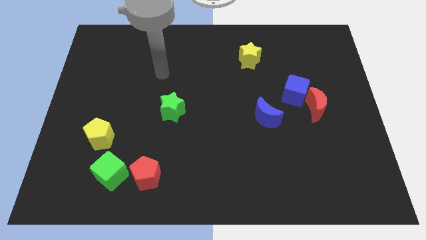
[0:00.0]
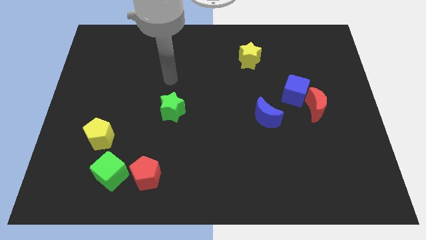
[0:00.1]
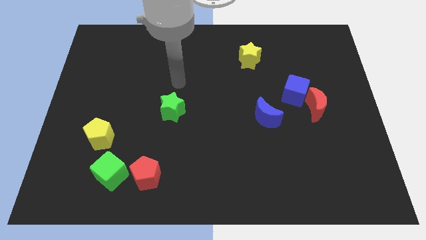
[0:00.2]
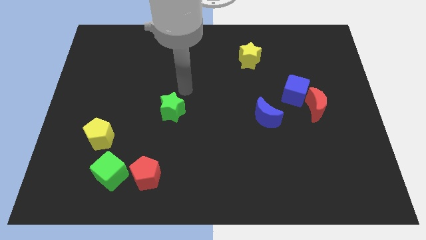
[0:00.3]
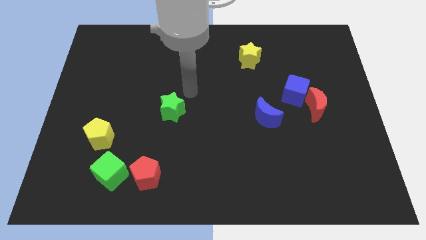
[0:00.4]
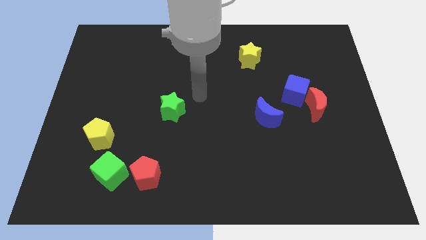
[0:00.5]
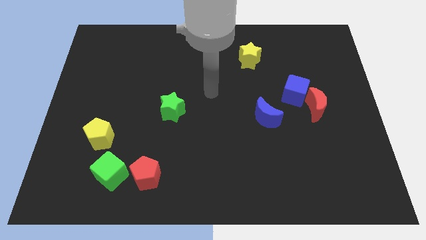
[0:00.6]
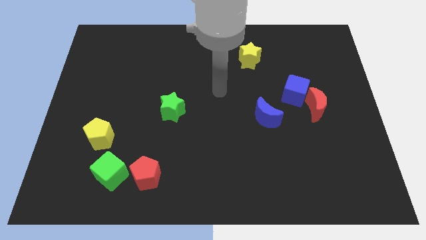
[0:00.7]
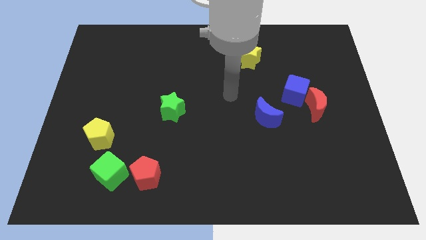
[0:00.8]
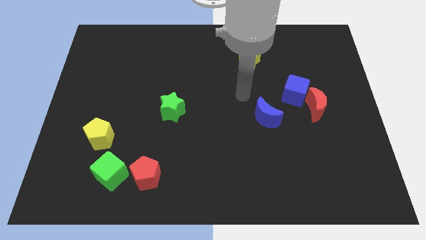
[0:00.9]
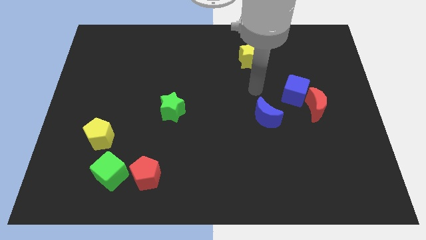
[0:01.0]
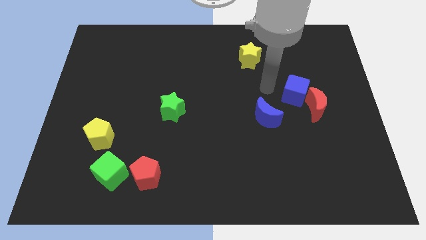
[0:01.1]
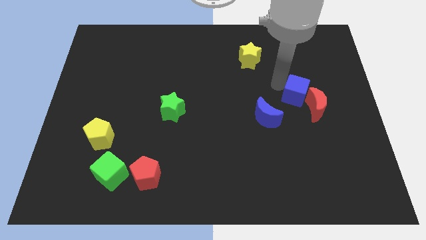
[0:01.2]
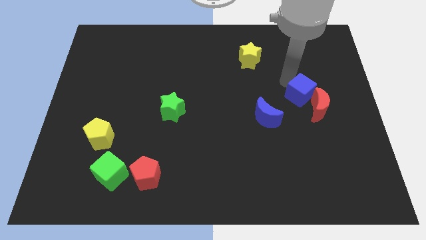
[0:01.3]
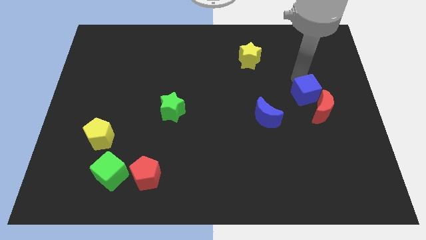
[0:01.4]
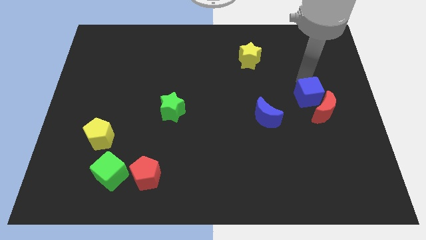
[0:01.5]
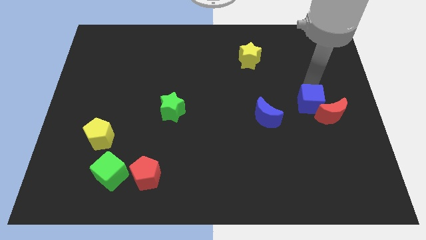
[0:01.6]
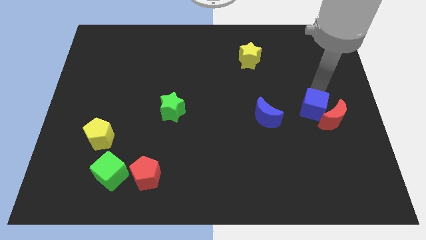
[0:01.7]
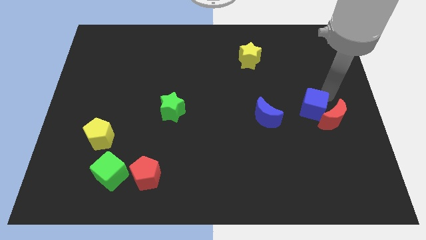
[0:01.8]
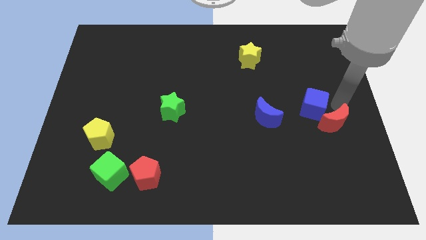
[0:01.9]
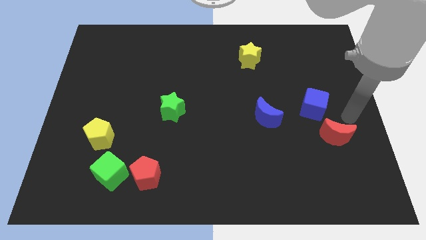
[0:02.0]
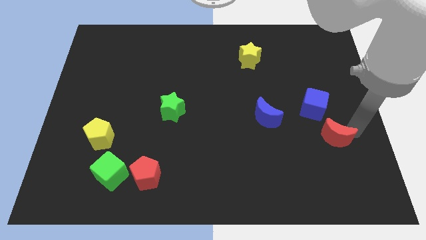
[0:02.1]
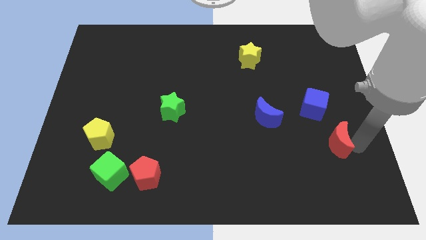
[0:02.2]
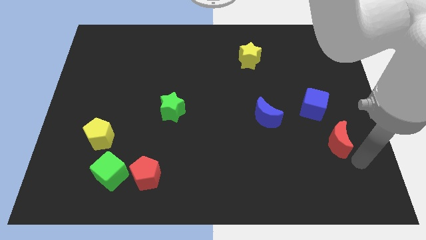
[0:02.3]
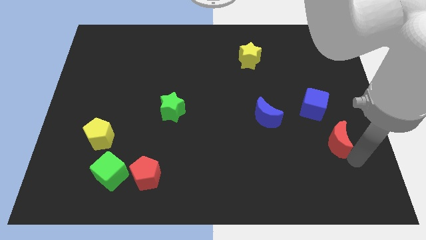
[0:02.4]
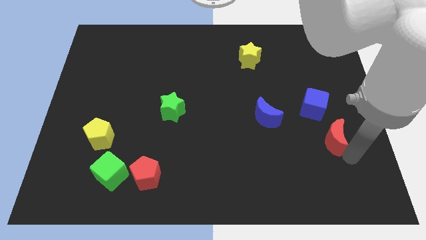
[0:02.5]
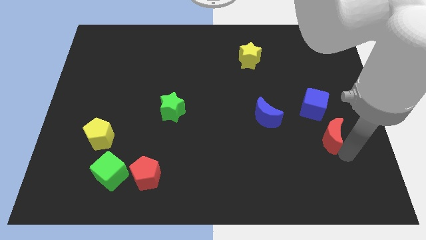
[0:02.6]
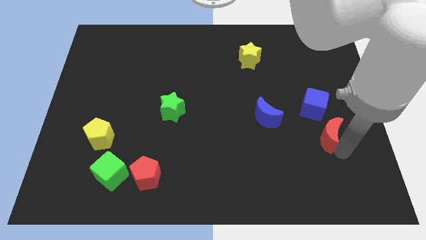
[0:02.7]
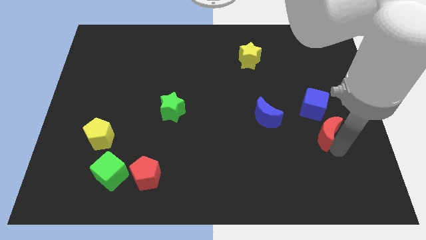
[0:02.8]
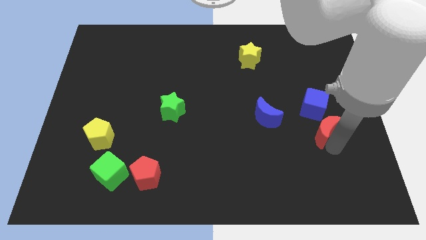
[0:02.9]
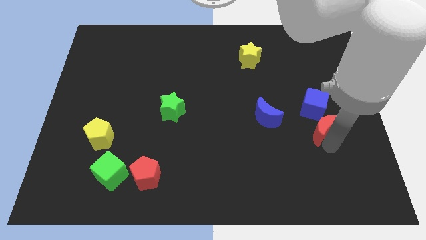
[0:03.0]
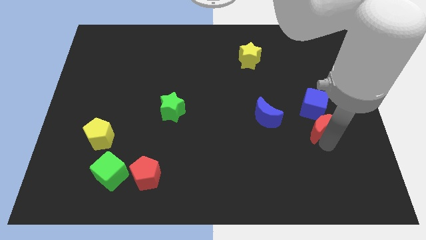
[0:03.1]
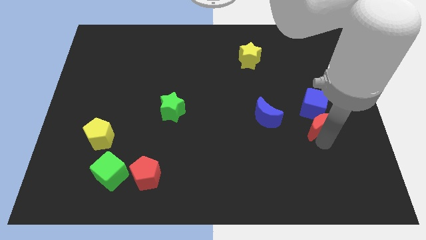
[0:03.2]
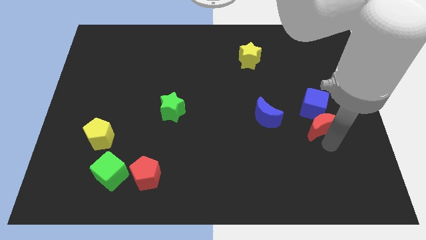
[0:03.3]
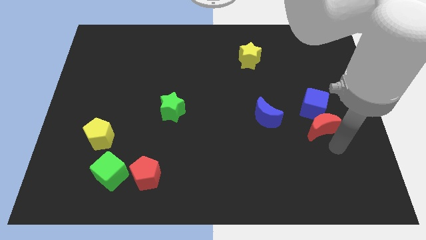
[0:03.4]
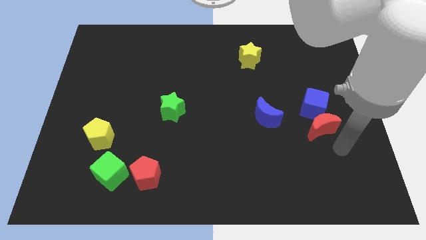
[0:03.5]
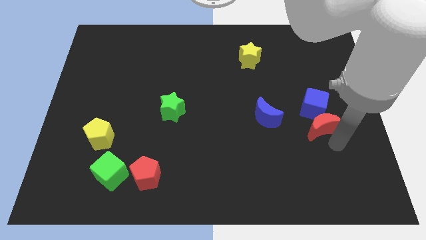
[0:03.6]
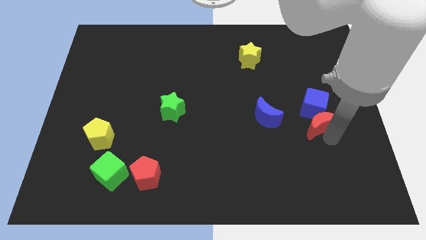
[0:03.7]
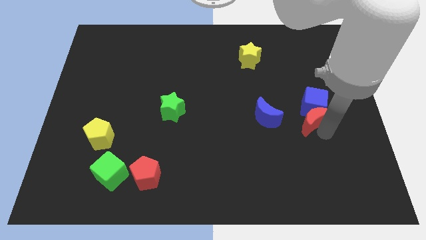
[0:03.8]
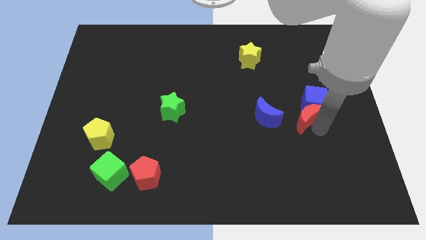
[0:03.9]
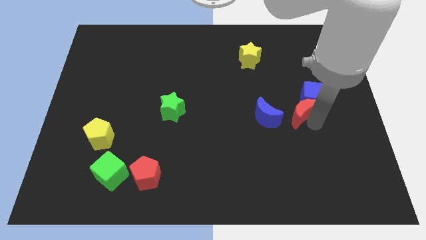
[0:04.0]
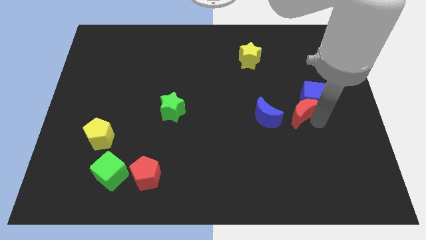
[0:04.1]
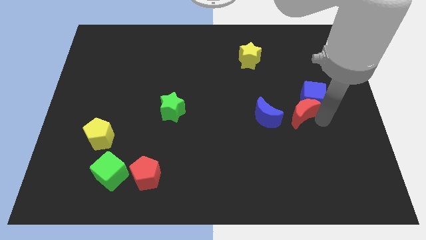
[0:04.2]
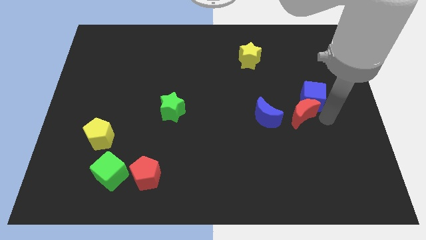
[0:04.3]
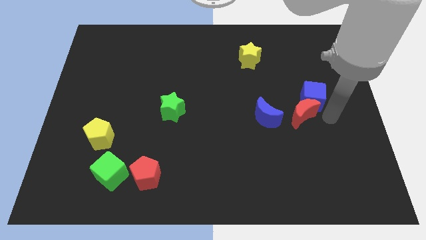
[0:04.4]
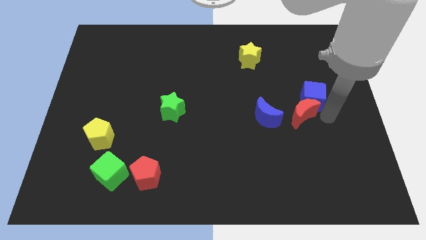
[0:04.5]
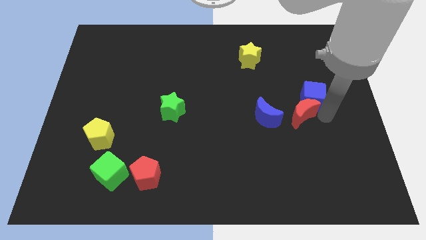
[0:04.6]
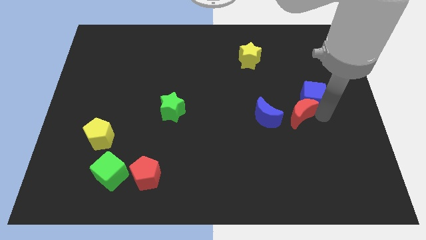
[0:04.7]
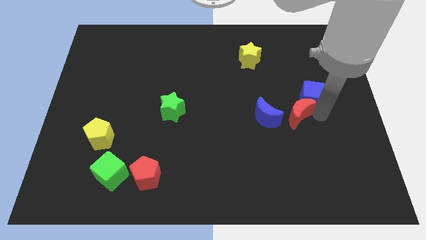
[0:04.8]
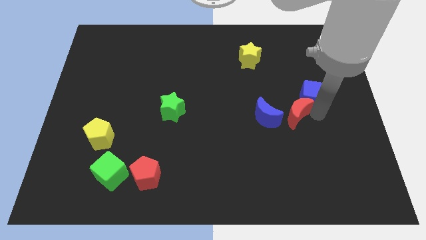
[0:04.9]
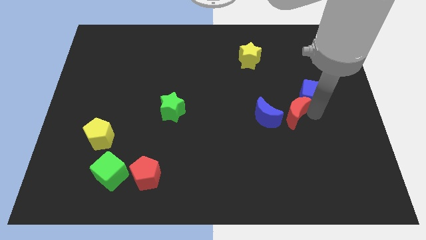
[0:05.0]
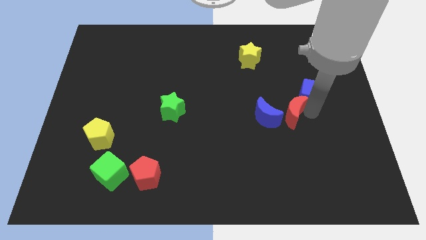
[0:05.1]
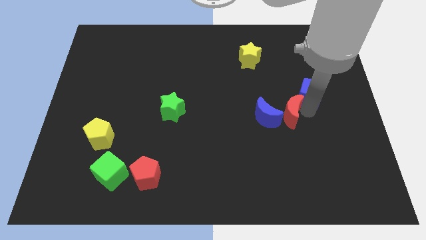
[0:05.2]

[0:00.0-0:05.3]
slide the red moon next to the blue moon

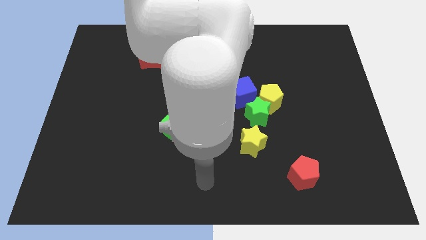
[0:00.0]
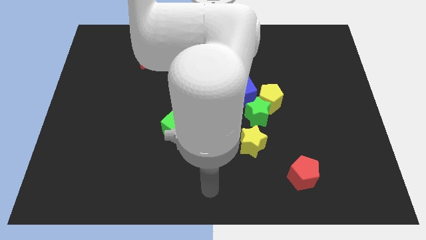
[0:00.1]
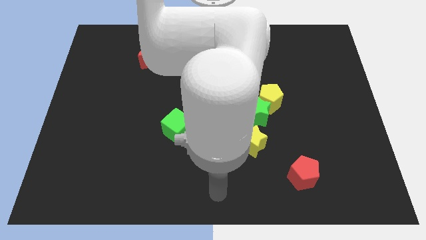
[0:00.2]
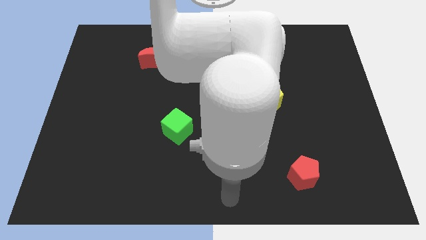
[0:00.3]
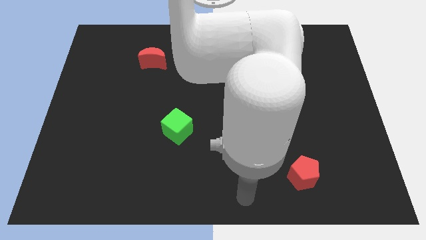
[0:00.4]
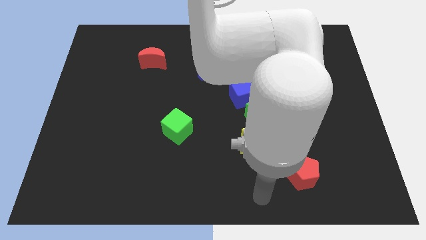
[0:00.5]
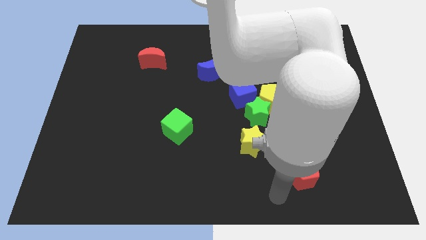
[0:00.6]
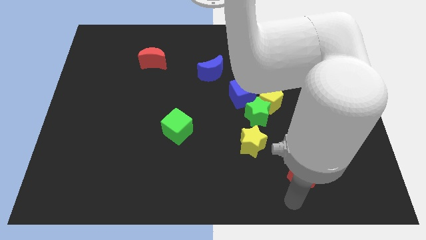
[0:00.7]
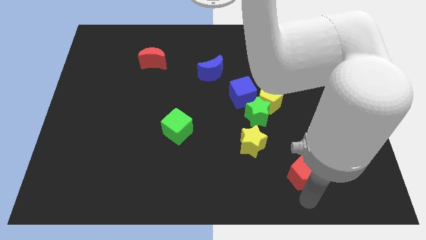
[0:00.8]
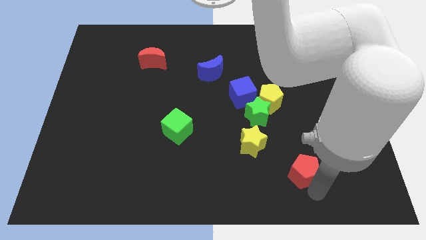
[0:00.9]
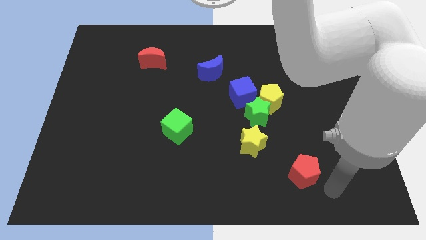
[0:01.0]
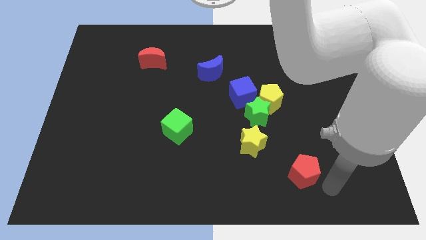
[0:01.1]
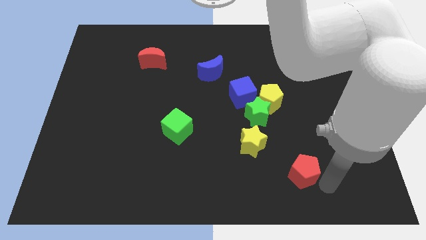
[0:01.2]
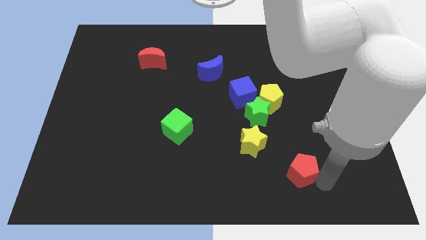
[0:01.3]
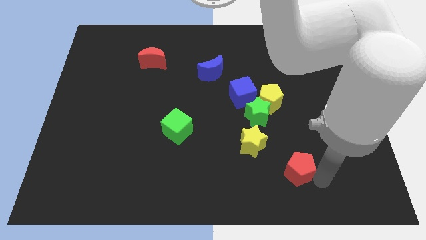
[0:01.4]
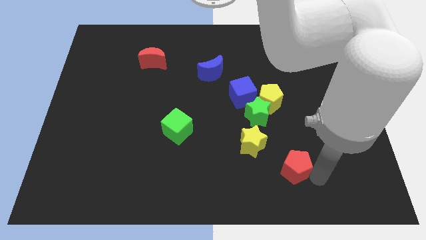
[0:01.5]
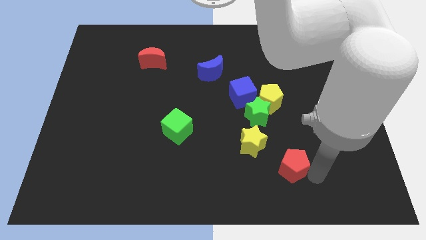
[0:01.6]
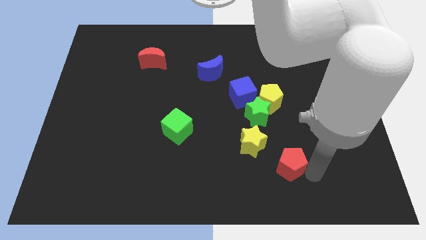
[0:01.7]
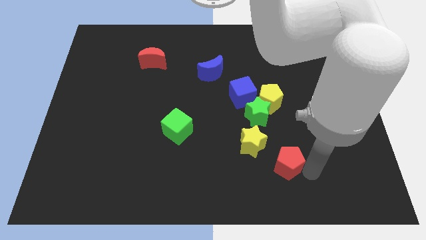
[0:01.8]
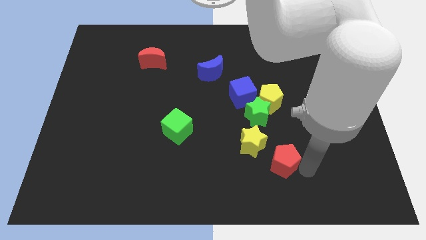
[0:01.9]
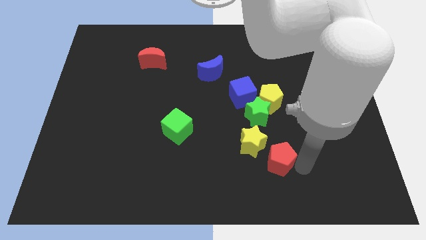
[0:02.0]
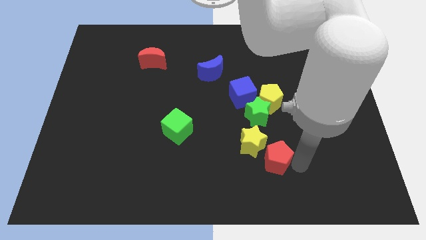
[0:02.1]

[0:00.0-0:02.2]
move the red pentagon to the yellow star
